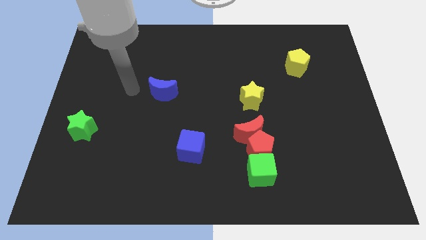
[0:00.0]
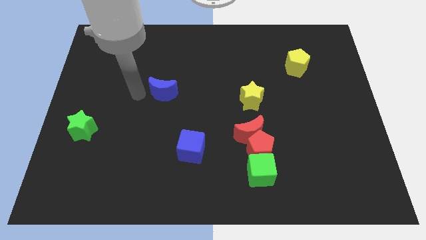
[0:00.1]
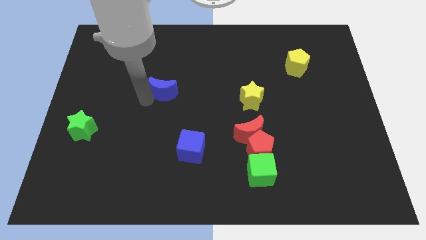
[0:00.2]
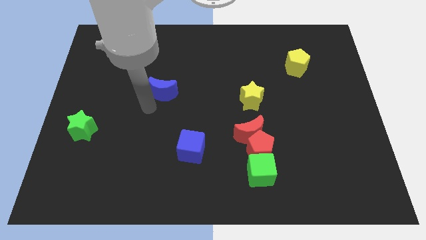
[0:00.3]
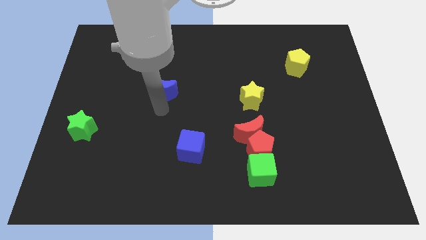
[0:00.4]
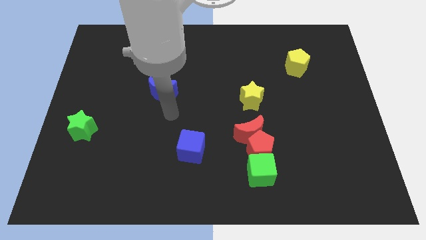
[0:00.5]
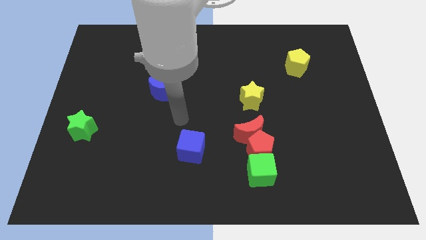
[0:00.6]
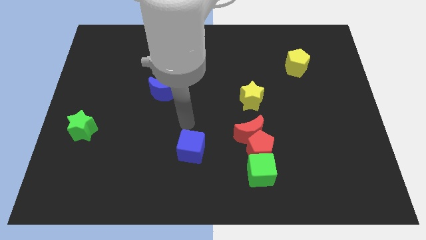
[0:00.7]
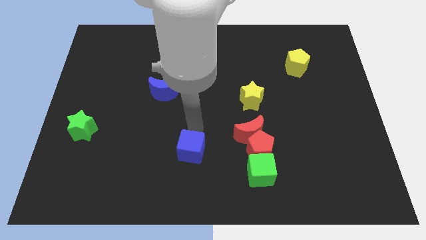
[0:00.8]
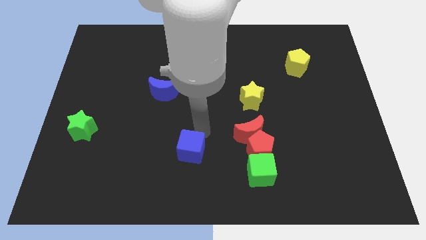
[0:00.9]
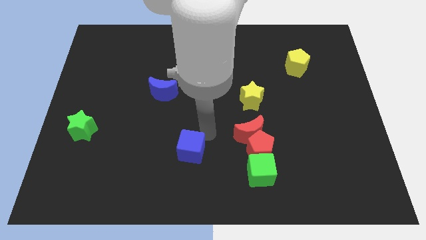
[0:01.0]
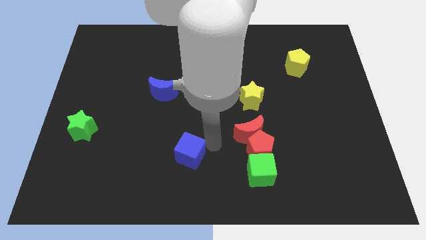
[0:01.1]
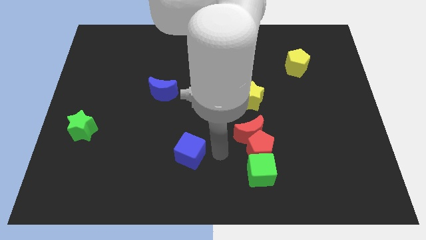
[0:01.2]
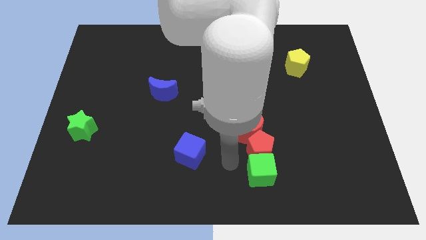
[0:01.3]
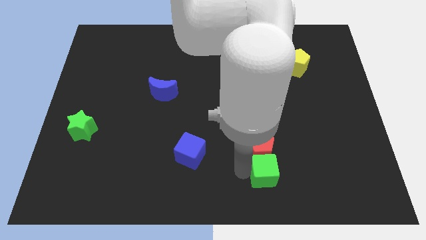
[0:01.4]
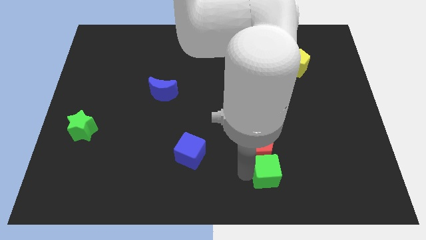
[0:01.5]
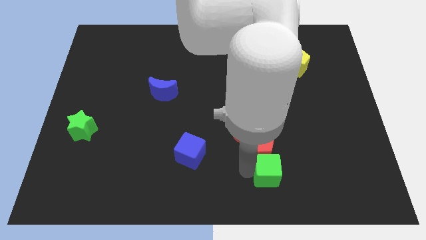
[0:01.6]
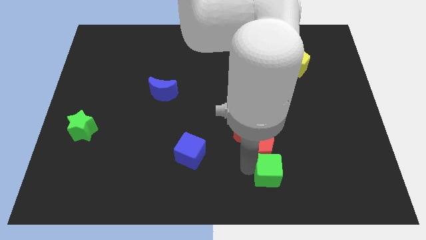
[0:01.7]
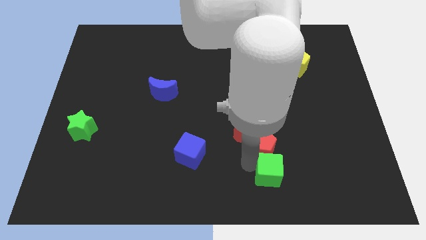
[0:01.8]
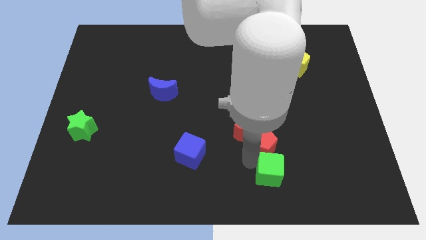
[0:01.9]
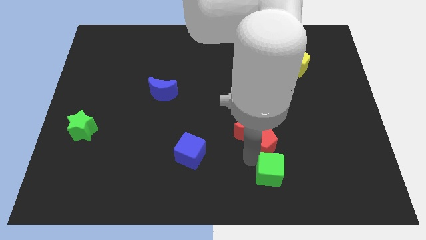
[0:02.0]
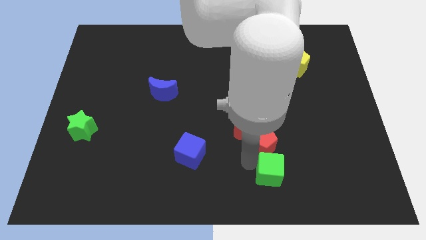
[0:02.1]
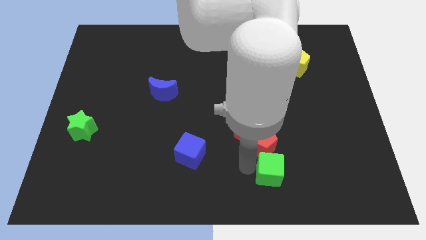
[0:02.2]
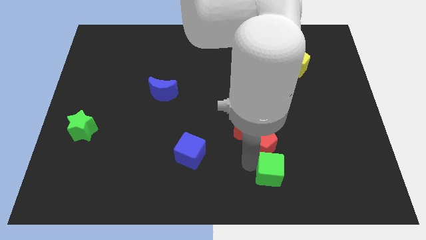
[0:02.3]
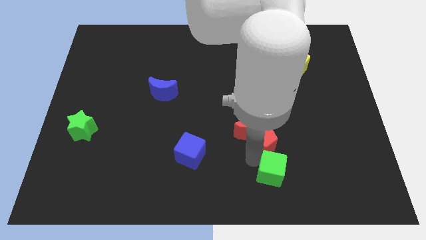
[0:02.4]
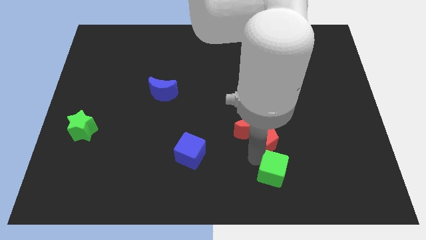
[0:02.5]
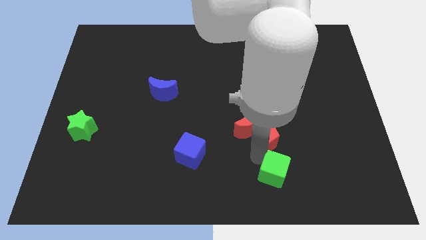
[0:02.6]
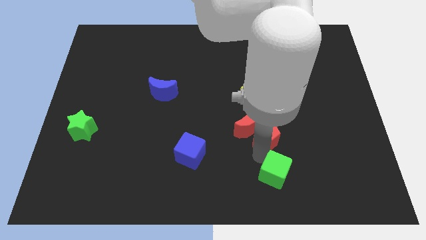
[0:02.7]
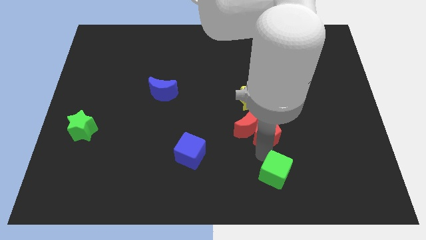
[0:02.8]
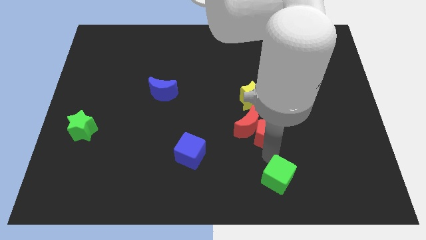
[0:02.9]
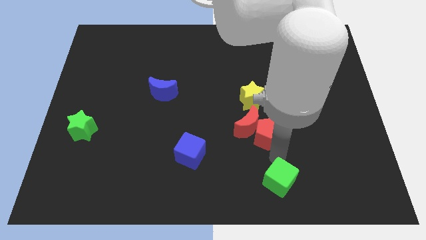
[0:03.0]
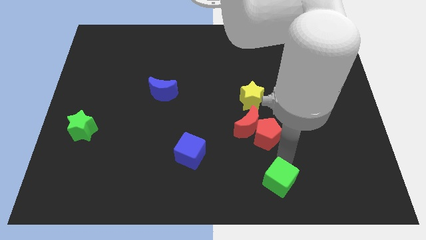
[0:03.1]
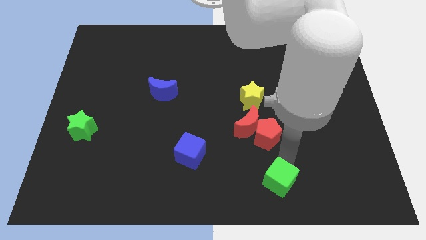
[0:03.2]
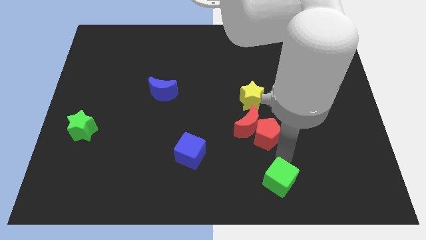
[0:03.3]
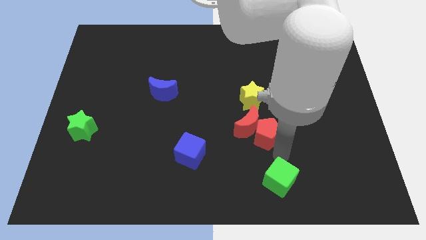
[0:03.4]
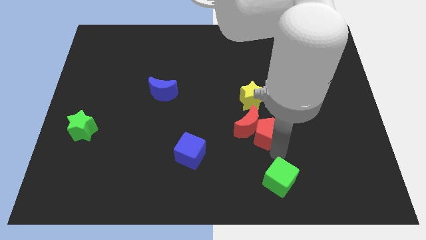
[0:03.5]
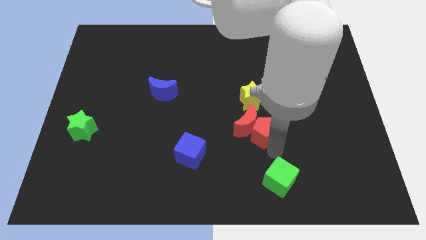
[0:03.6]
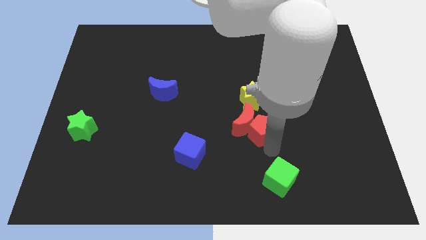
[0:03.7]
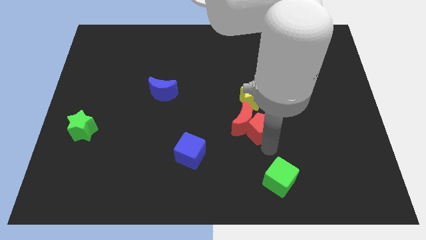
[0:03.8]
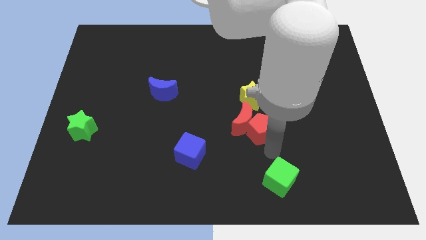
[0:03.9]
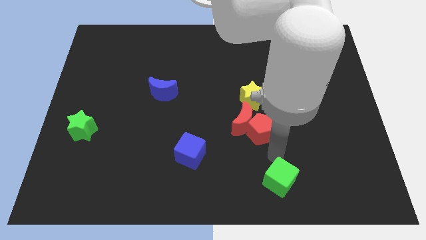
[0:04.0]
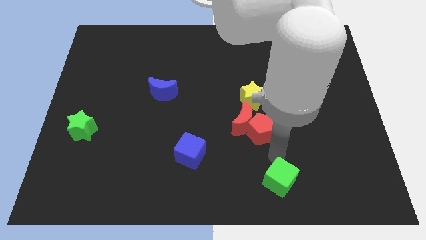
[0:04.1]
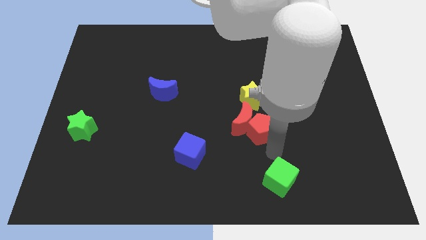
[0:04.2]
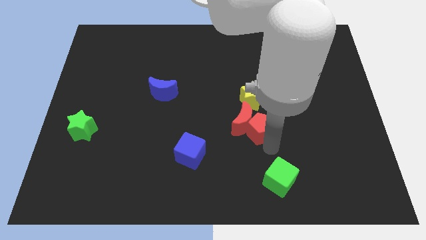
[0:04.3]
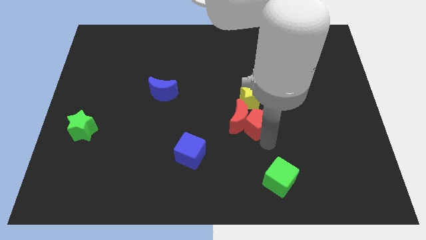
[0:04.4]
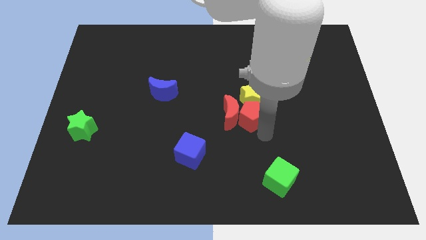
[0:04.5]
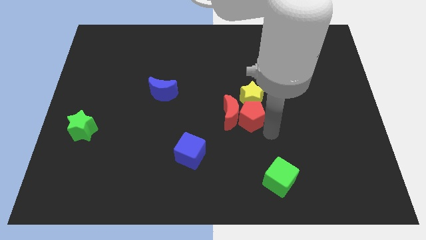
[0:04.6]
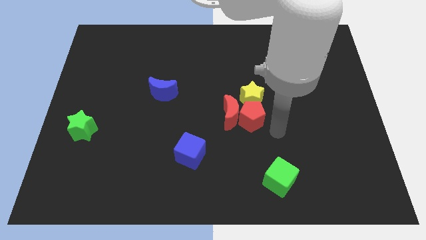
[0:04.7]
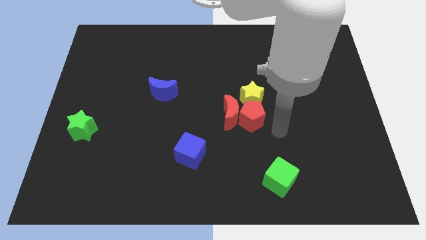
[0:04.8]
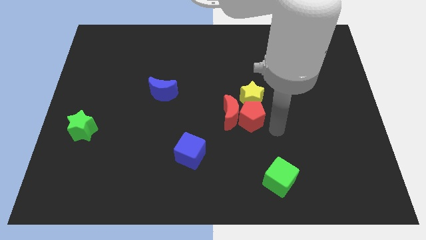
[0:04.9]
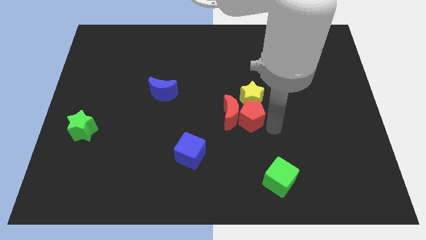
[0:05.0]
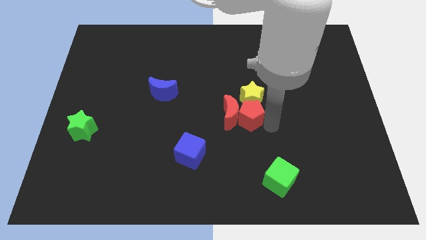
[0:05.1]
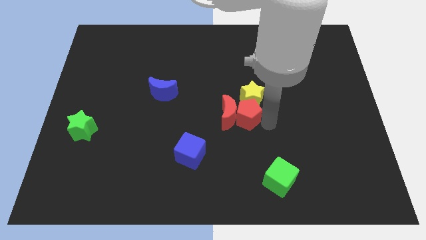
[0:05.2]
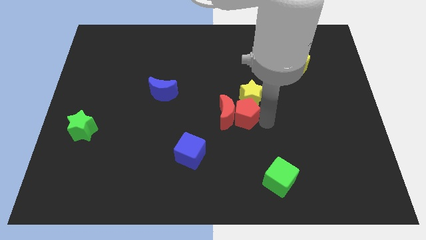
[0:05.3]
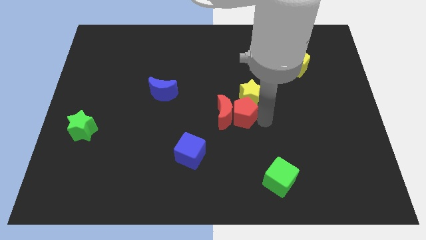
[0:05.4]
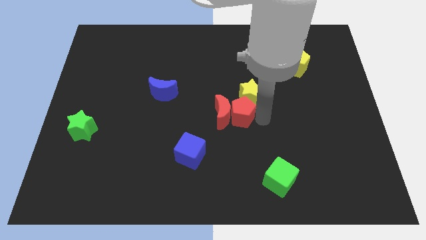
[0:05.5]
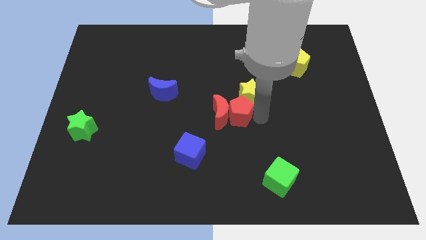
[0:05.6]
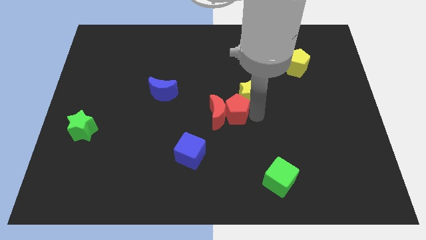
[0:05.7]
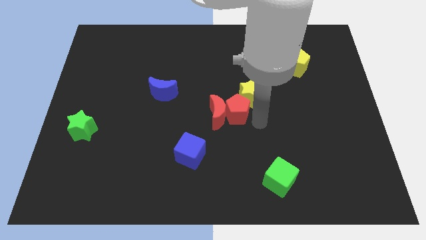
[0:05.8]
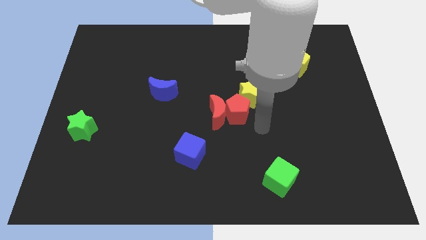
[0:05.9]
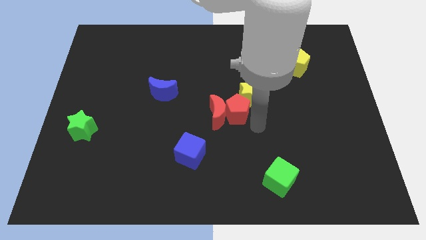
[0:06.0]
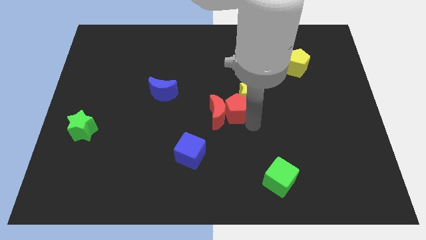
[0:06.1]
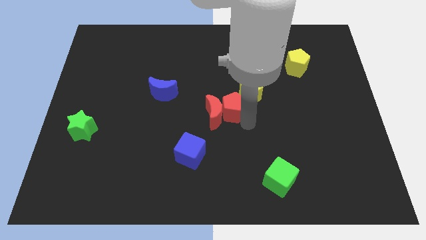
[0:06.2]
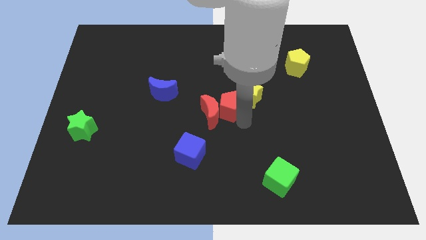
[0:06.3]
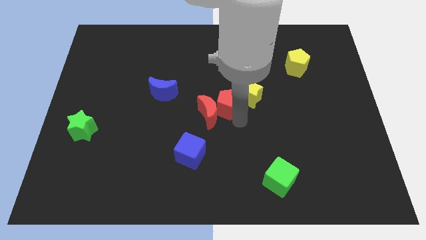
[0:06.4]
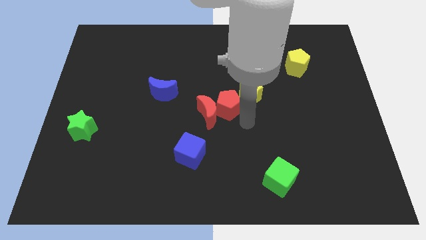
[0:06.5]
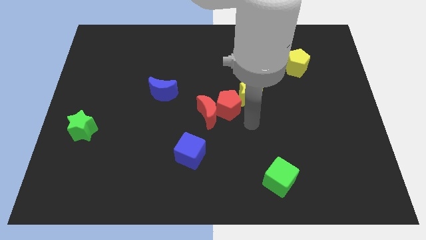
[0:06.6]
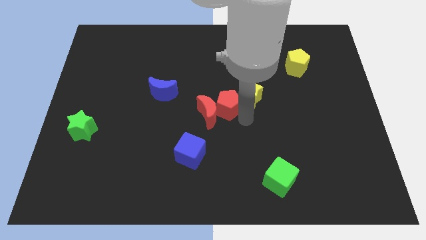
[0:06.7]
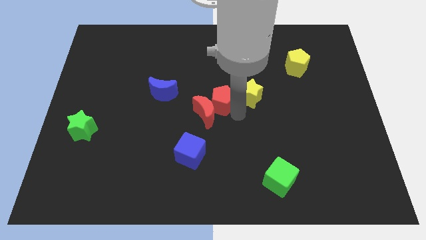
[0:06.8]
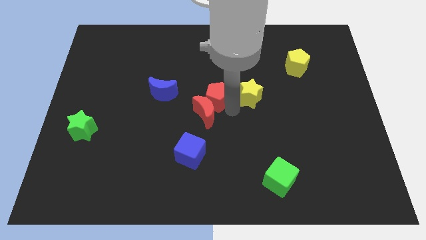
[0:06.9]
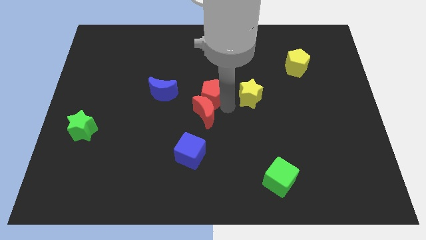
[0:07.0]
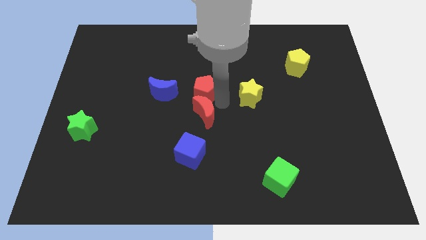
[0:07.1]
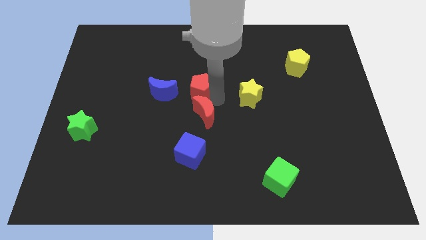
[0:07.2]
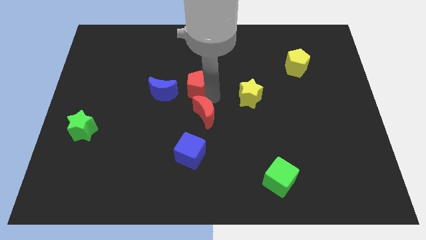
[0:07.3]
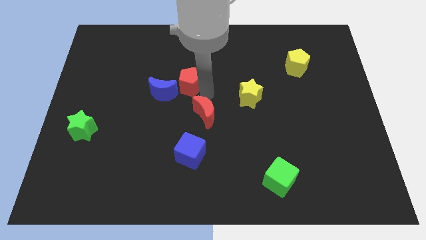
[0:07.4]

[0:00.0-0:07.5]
push the red pentagon to the top right of the blue moon
